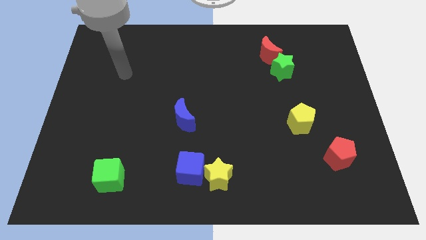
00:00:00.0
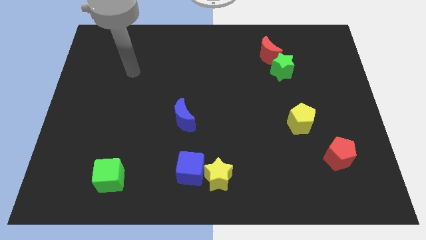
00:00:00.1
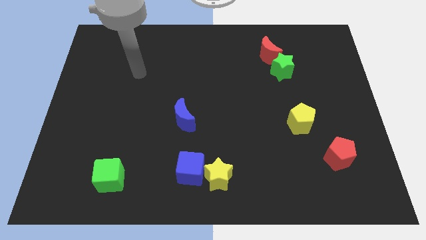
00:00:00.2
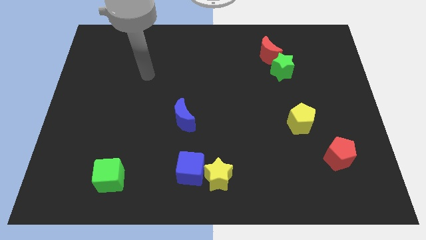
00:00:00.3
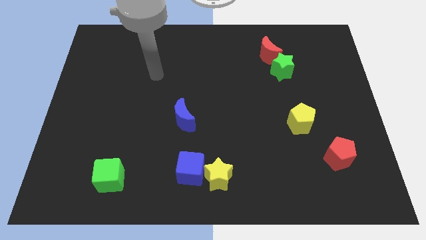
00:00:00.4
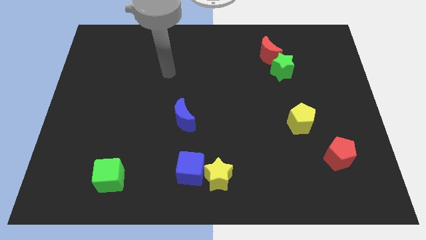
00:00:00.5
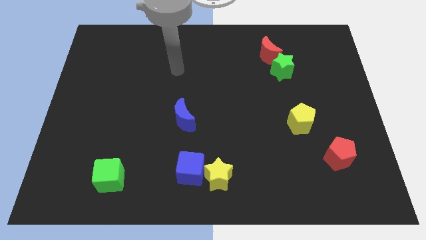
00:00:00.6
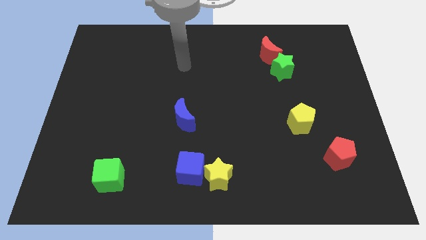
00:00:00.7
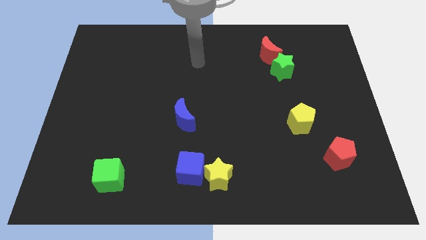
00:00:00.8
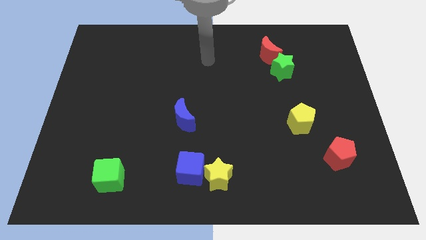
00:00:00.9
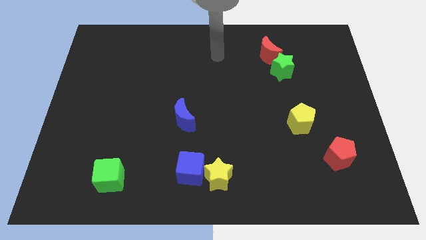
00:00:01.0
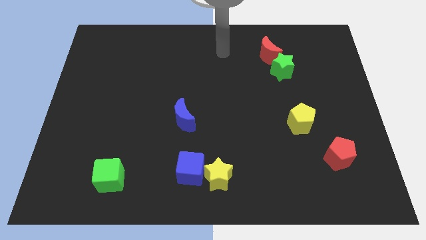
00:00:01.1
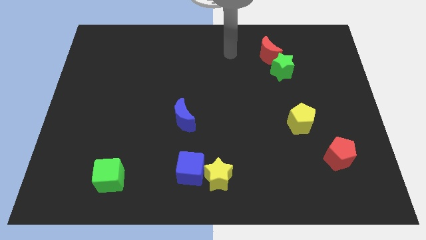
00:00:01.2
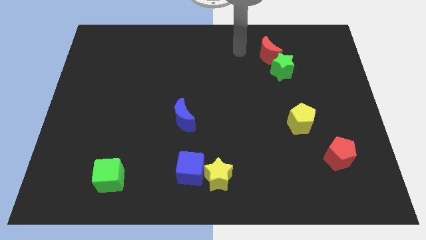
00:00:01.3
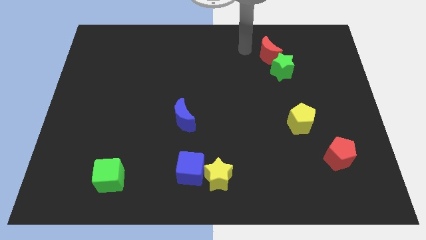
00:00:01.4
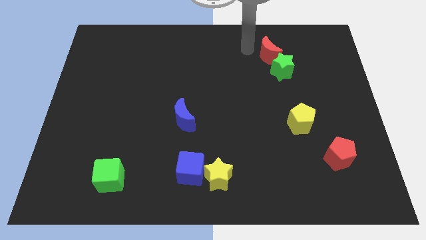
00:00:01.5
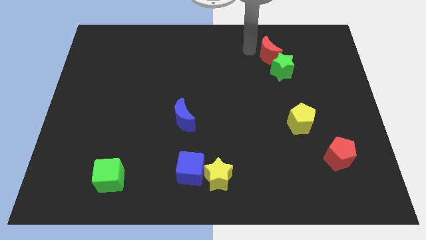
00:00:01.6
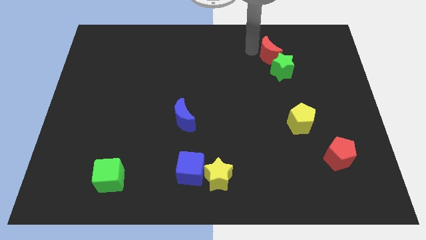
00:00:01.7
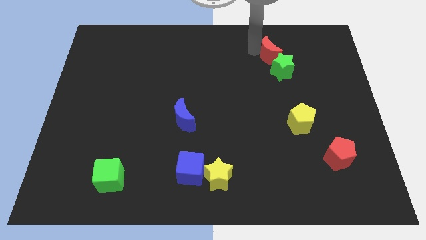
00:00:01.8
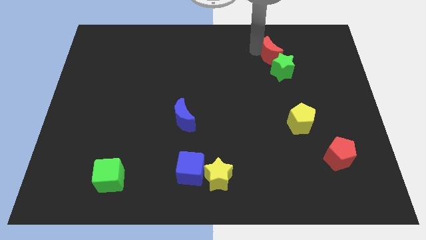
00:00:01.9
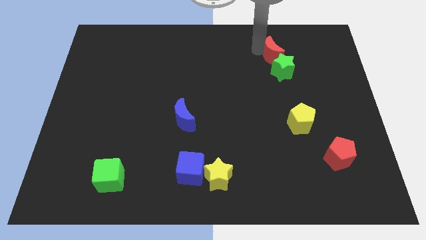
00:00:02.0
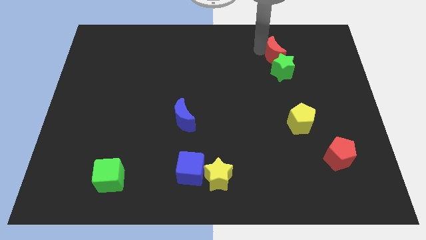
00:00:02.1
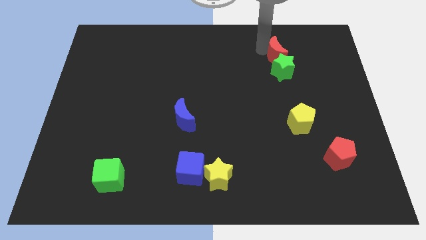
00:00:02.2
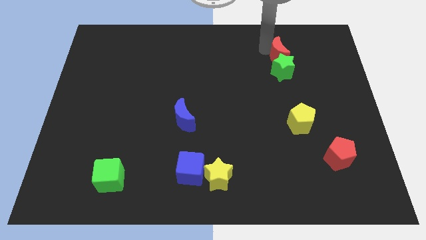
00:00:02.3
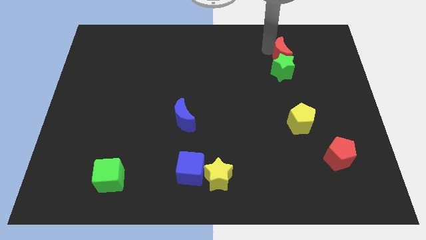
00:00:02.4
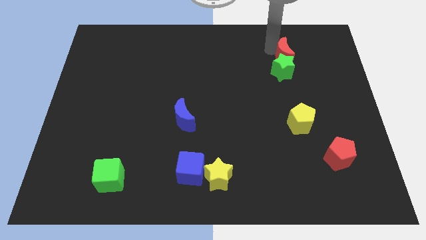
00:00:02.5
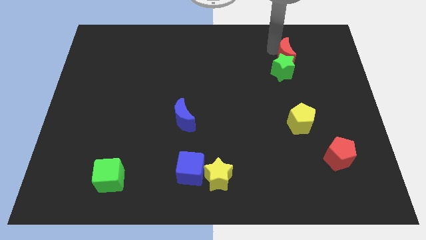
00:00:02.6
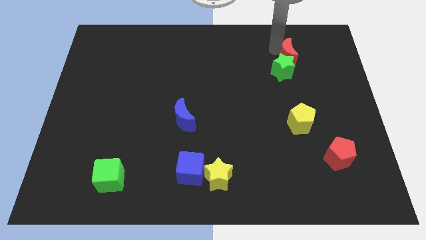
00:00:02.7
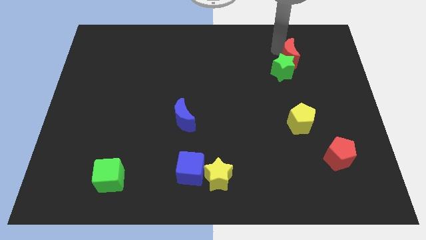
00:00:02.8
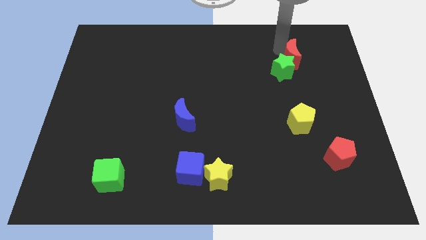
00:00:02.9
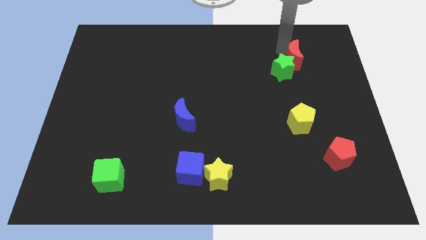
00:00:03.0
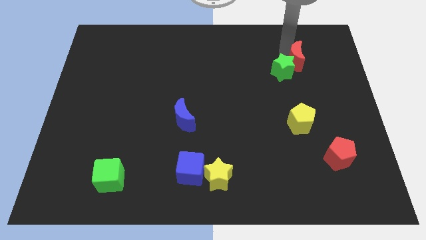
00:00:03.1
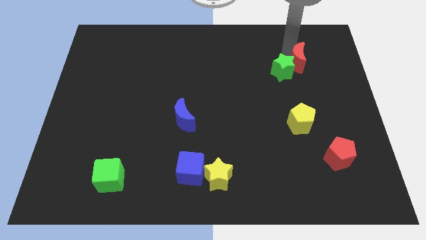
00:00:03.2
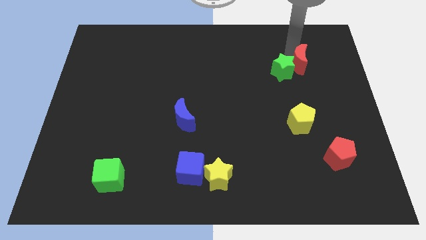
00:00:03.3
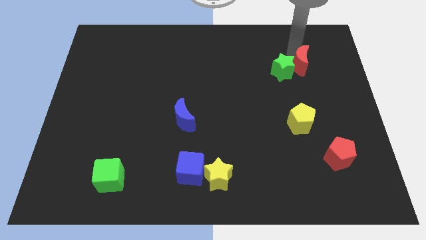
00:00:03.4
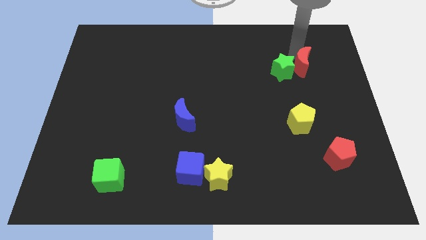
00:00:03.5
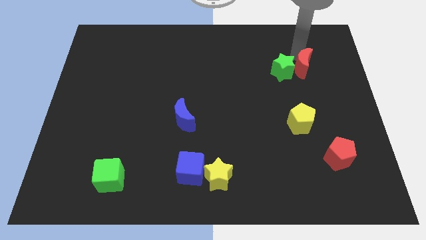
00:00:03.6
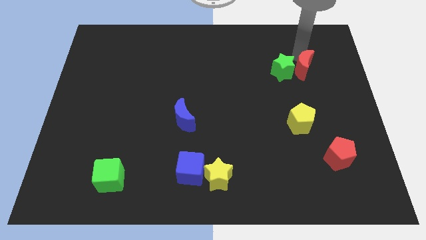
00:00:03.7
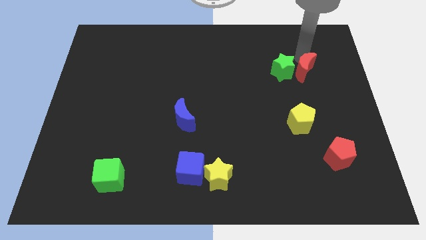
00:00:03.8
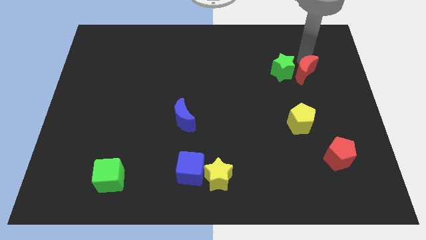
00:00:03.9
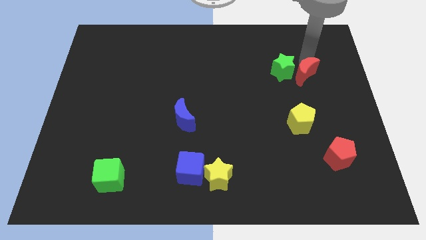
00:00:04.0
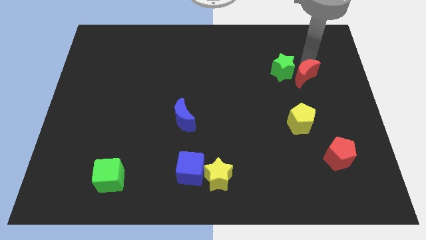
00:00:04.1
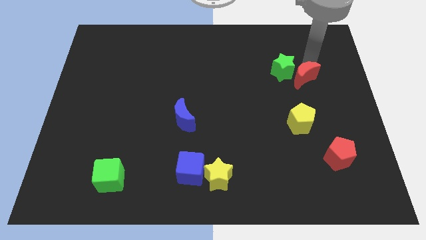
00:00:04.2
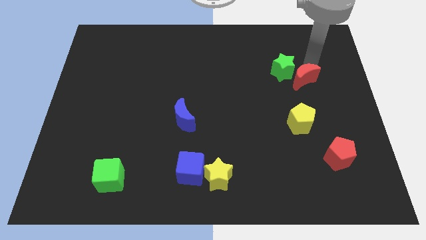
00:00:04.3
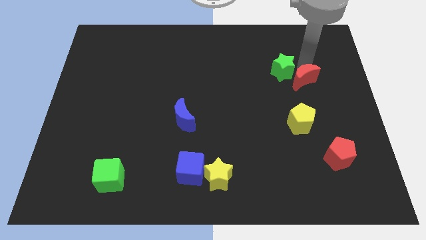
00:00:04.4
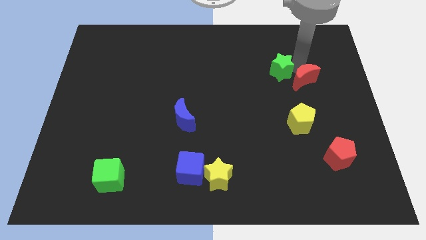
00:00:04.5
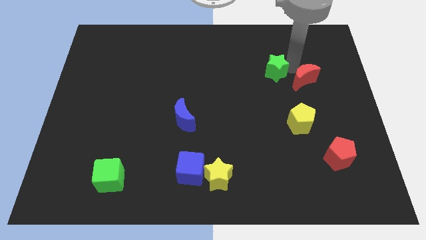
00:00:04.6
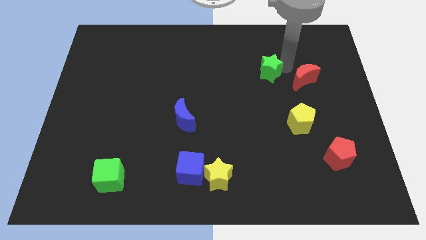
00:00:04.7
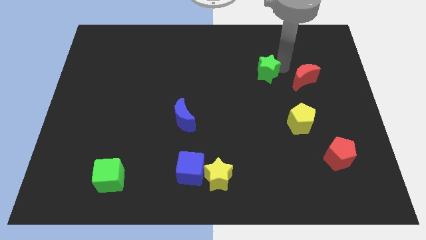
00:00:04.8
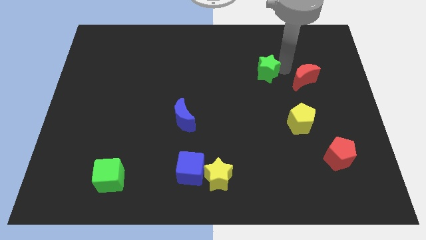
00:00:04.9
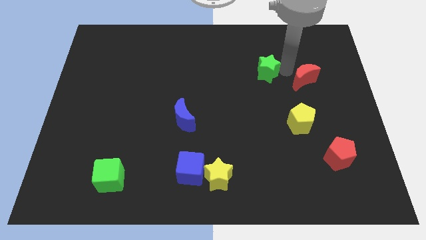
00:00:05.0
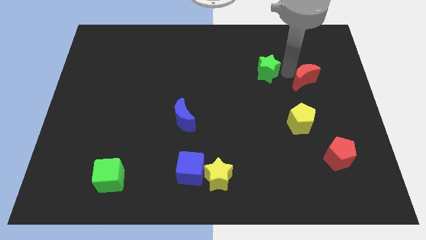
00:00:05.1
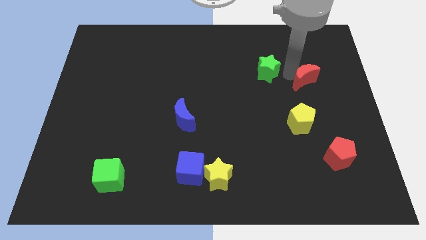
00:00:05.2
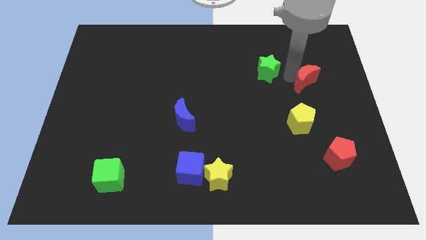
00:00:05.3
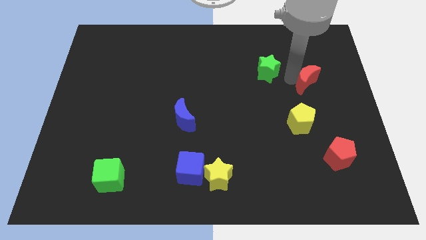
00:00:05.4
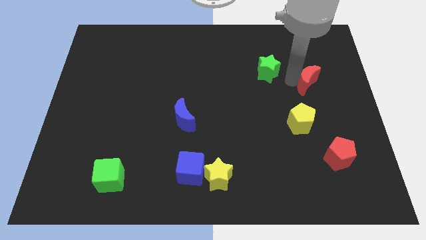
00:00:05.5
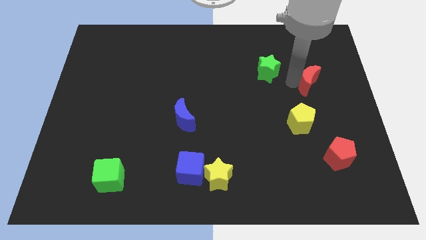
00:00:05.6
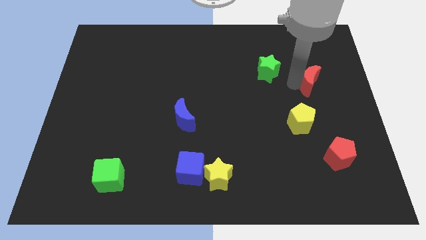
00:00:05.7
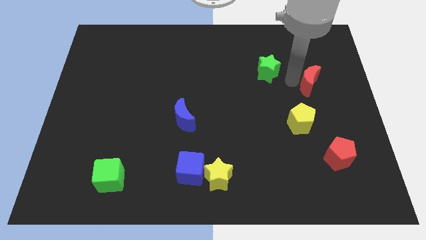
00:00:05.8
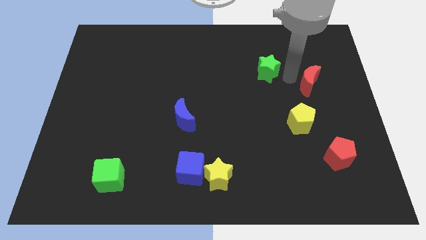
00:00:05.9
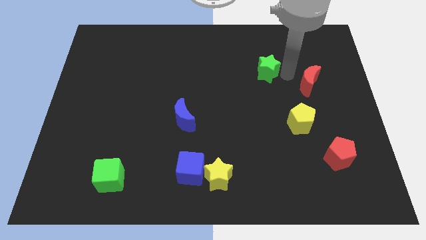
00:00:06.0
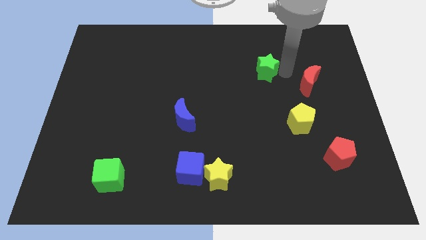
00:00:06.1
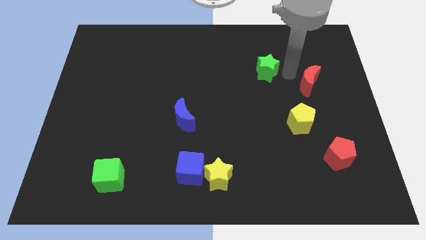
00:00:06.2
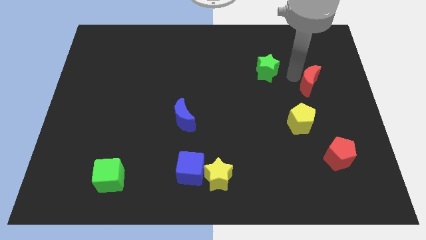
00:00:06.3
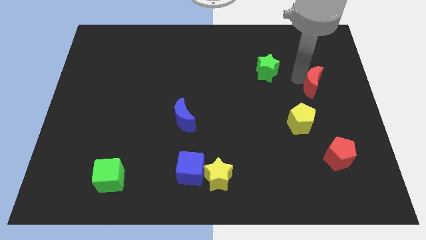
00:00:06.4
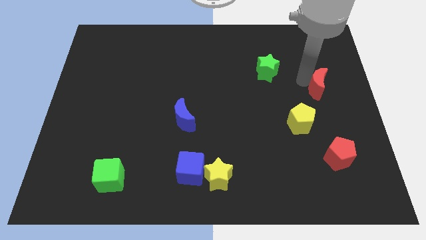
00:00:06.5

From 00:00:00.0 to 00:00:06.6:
put the red moon to the top right side of the yellow pentagon
